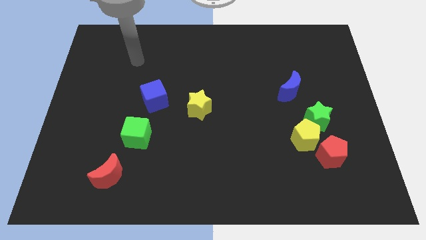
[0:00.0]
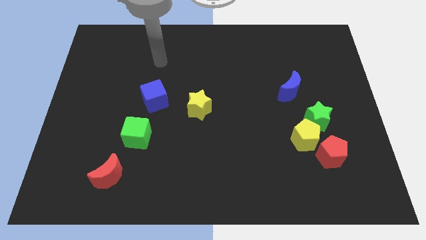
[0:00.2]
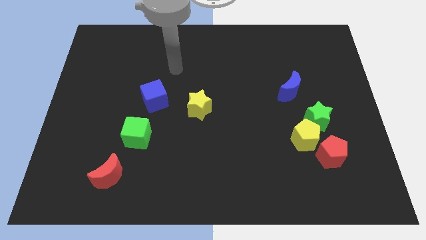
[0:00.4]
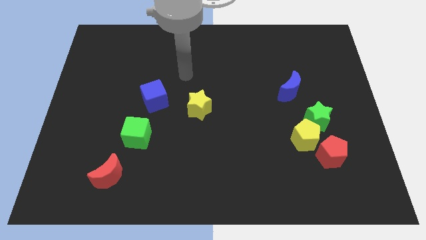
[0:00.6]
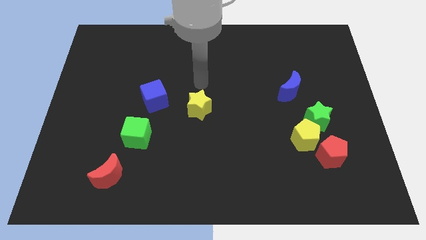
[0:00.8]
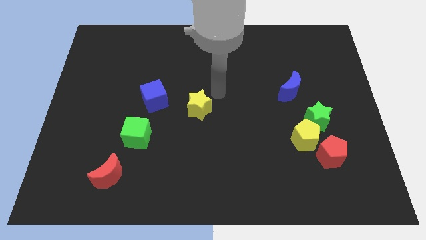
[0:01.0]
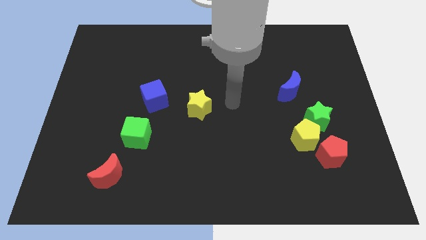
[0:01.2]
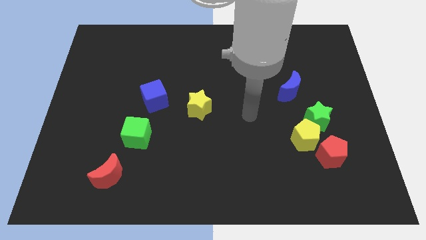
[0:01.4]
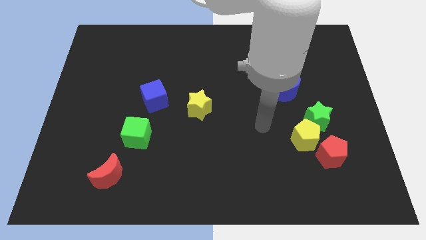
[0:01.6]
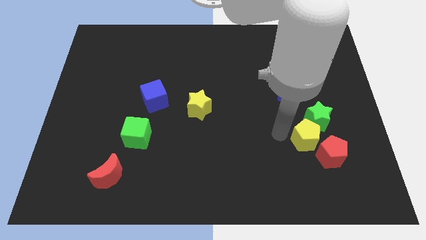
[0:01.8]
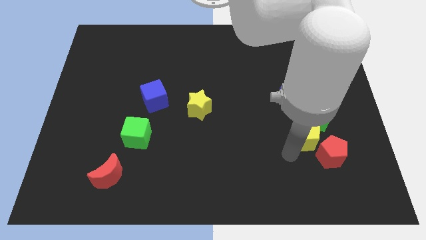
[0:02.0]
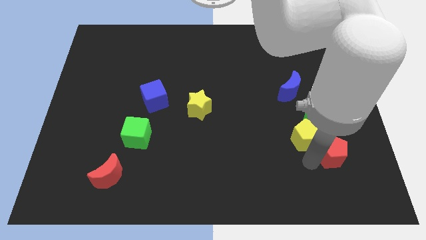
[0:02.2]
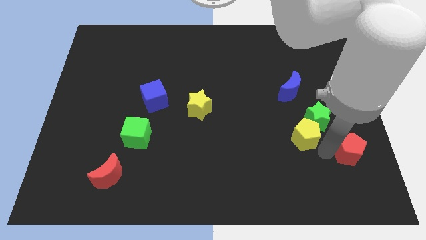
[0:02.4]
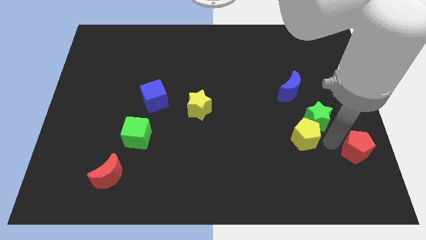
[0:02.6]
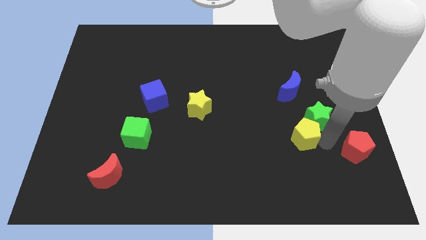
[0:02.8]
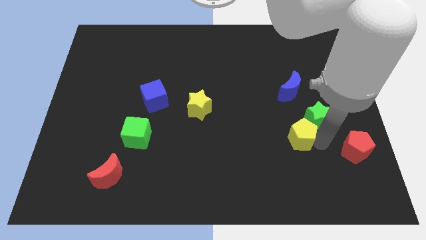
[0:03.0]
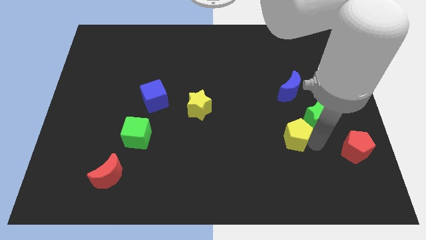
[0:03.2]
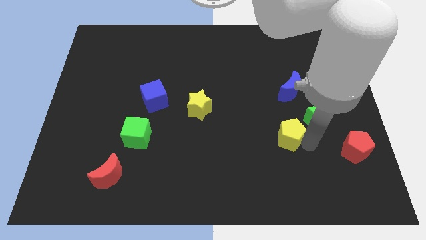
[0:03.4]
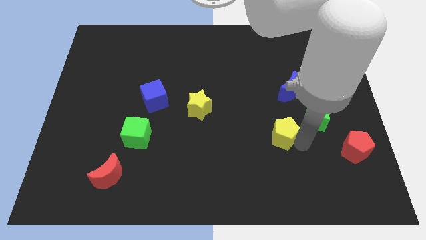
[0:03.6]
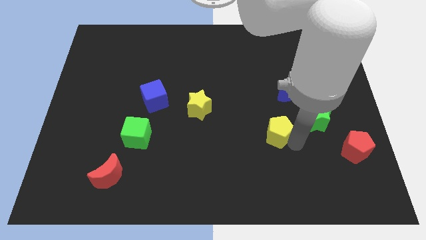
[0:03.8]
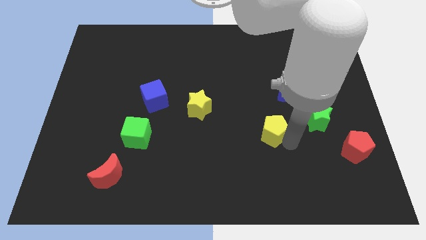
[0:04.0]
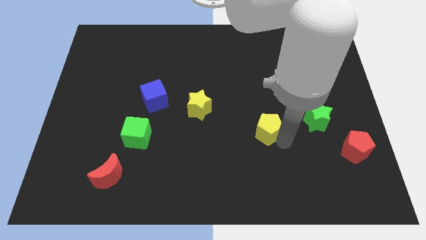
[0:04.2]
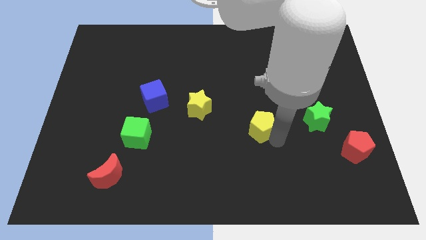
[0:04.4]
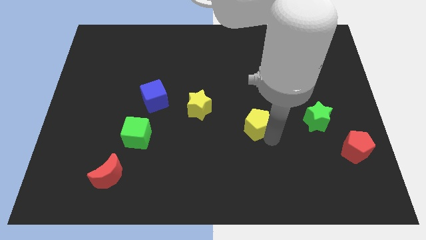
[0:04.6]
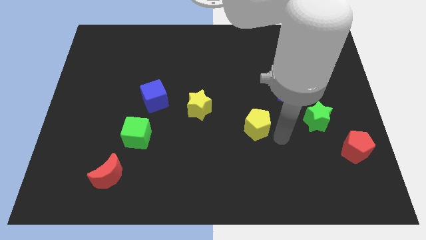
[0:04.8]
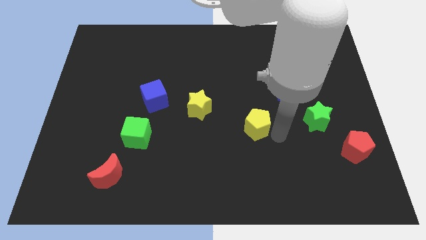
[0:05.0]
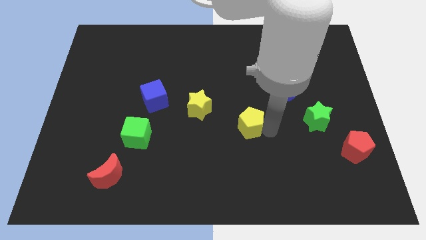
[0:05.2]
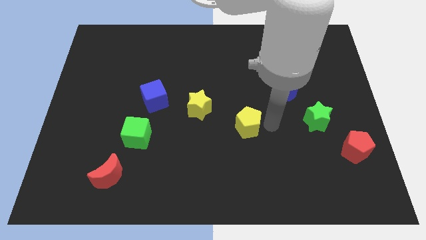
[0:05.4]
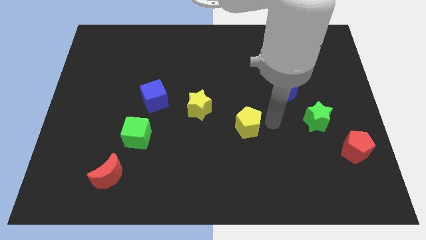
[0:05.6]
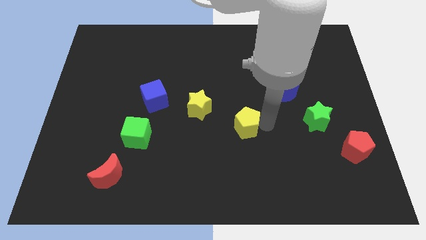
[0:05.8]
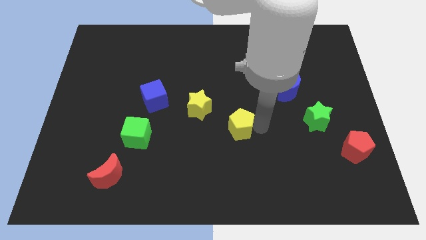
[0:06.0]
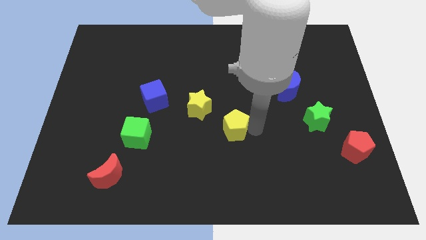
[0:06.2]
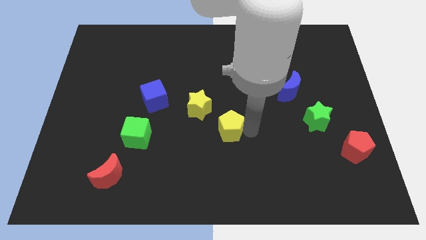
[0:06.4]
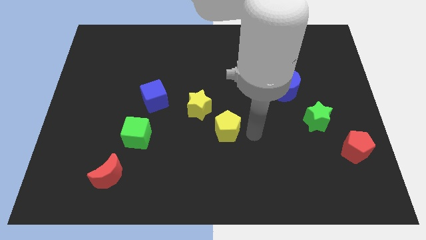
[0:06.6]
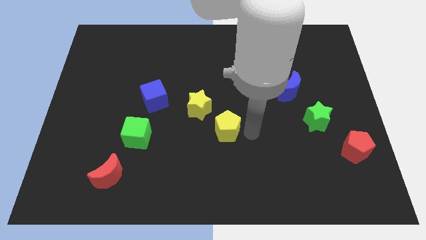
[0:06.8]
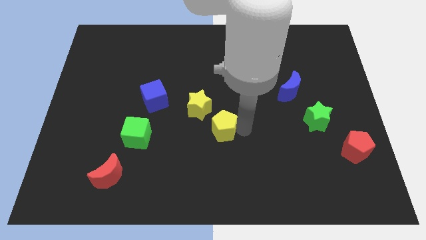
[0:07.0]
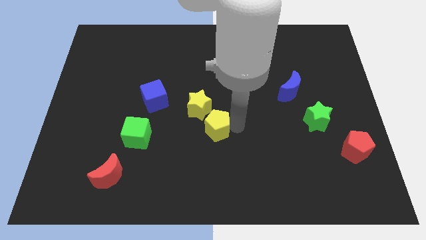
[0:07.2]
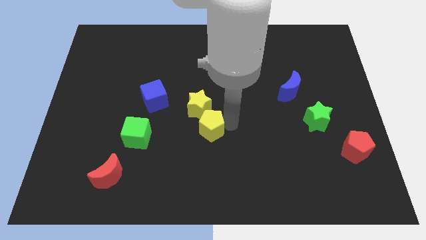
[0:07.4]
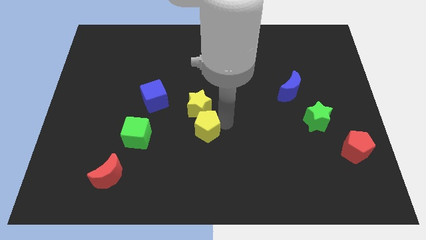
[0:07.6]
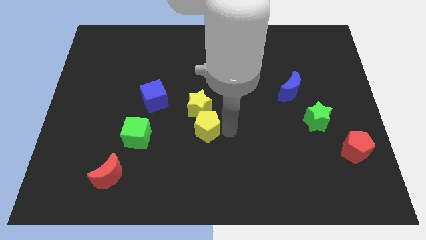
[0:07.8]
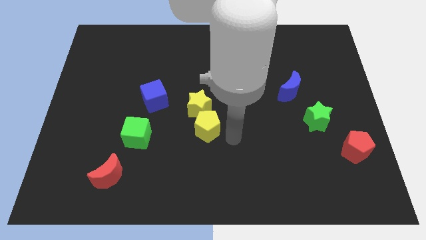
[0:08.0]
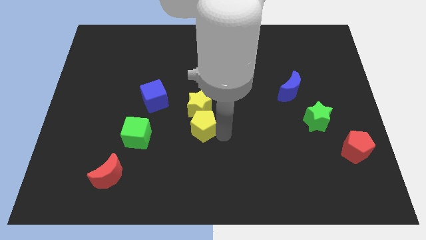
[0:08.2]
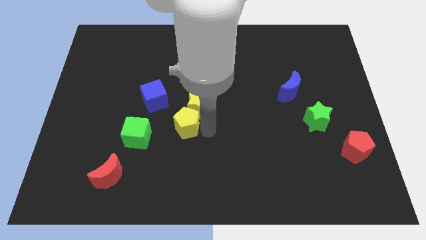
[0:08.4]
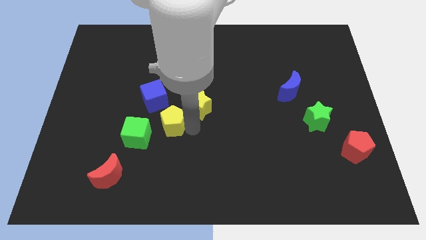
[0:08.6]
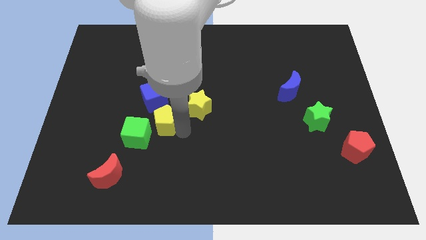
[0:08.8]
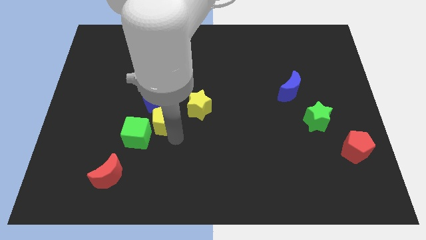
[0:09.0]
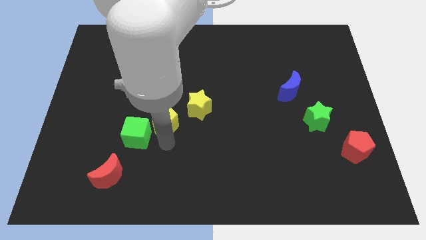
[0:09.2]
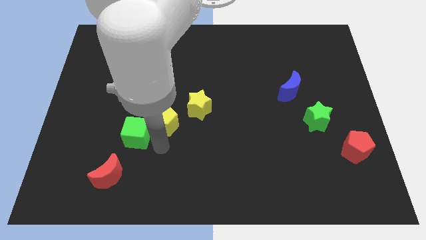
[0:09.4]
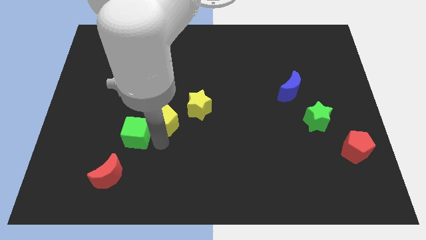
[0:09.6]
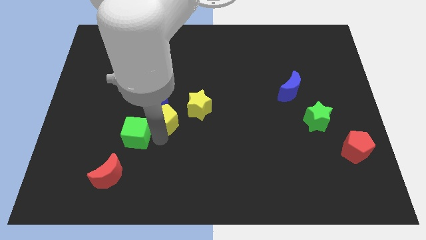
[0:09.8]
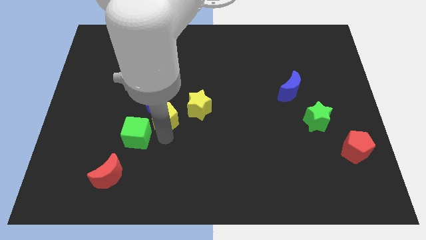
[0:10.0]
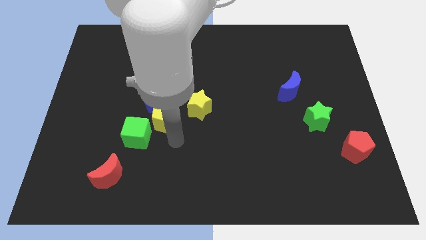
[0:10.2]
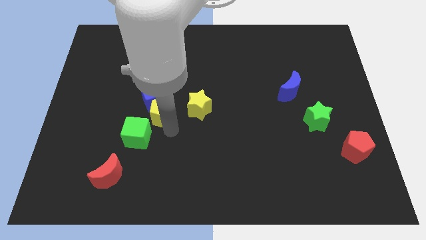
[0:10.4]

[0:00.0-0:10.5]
put the yellow pentagon close to the blue cube

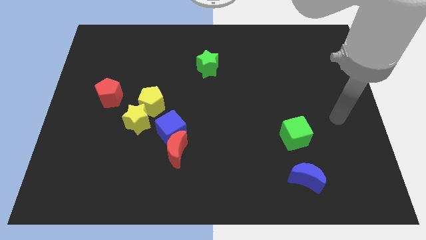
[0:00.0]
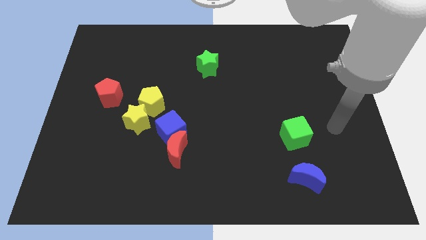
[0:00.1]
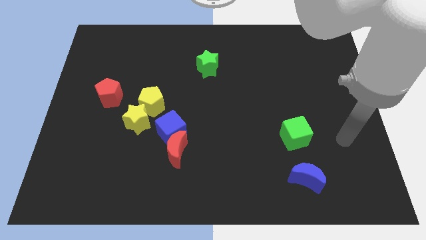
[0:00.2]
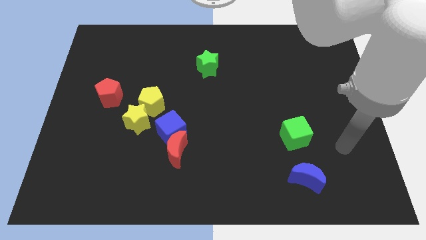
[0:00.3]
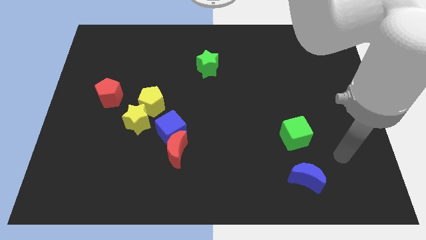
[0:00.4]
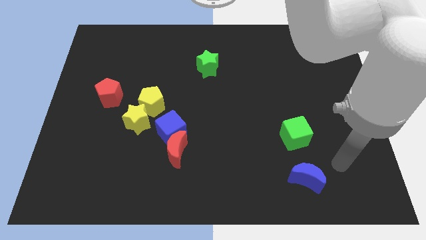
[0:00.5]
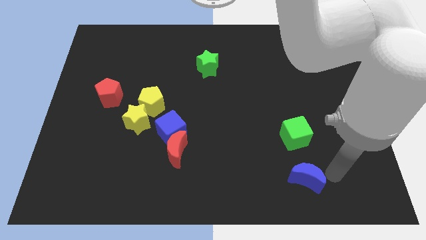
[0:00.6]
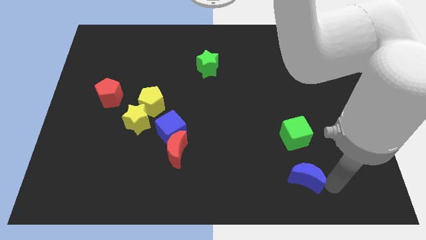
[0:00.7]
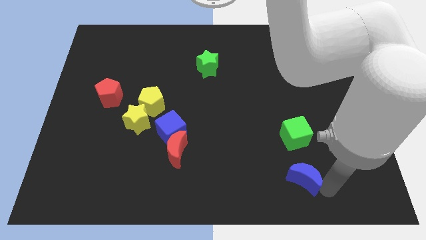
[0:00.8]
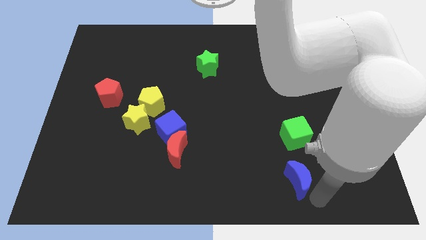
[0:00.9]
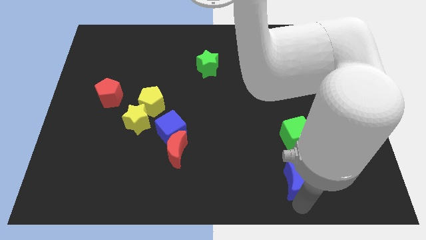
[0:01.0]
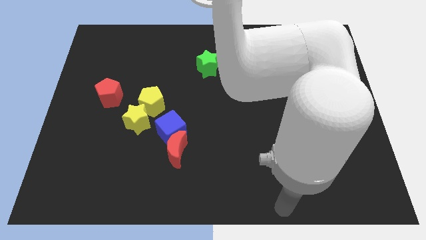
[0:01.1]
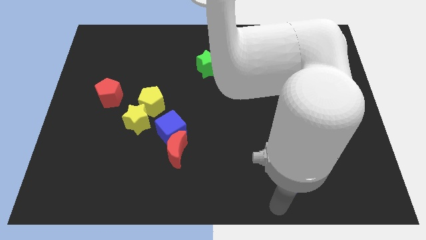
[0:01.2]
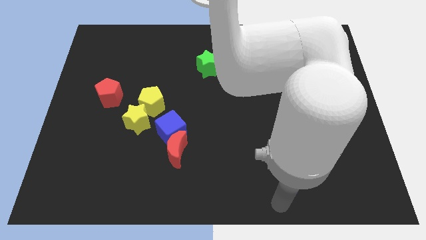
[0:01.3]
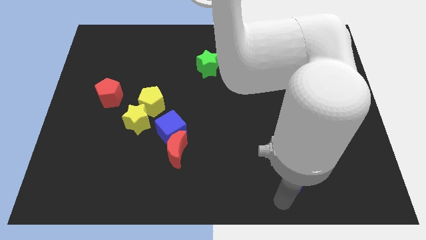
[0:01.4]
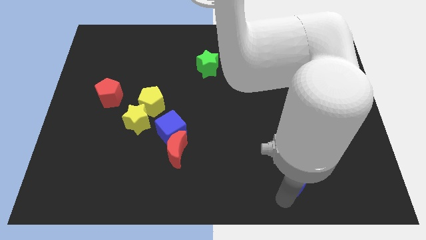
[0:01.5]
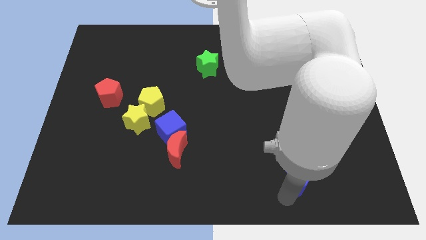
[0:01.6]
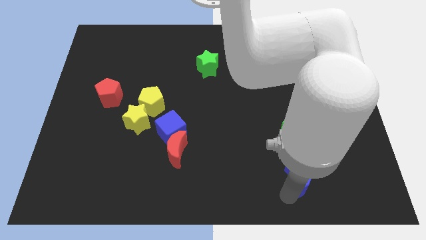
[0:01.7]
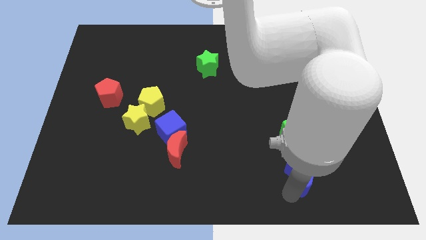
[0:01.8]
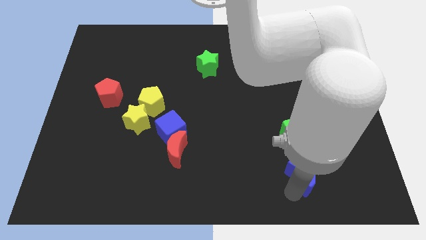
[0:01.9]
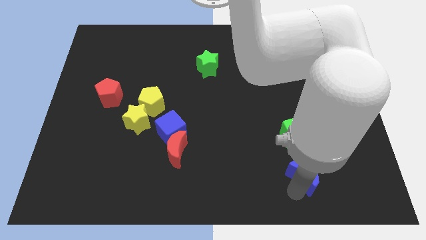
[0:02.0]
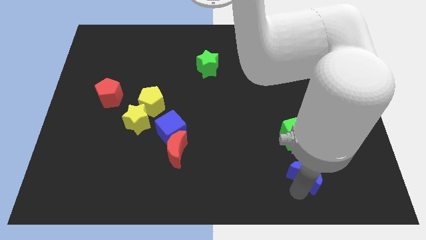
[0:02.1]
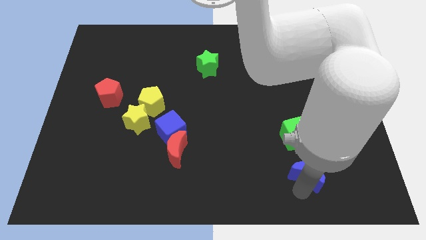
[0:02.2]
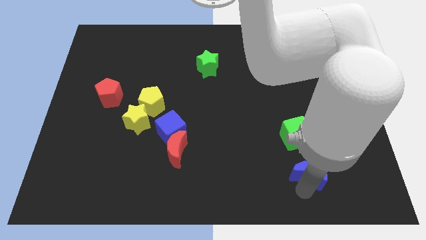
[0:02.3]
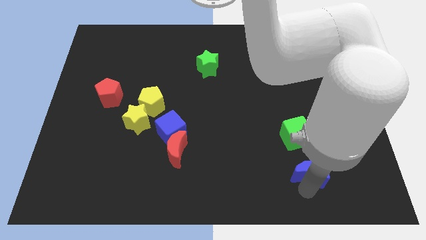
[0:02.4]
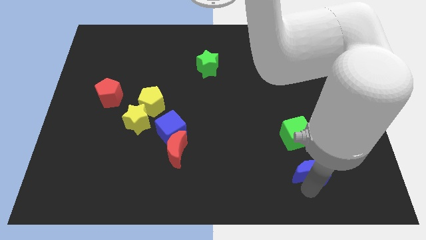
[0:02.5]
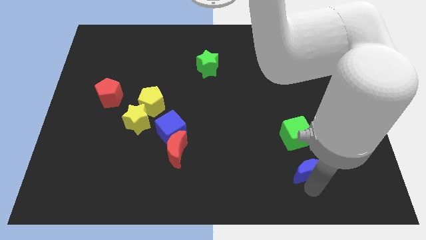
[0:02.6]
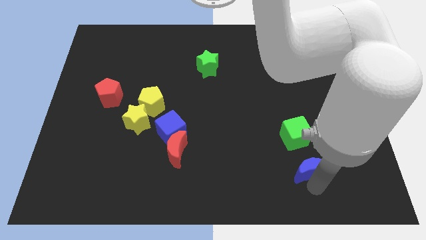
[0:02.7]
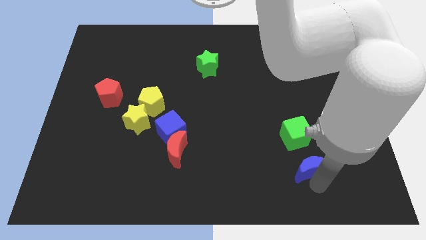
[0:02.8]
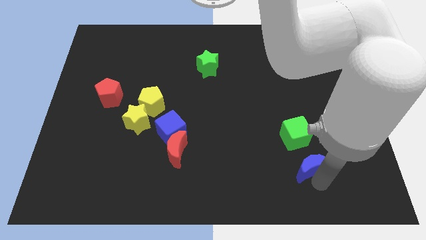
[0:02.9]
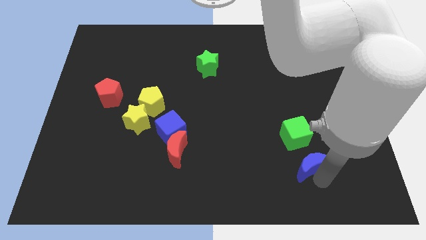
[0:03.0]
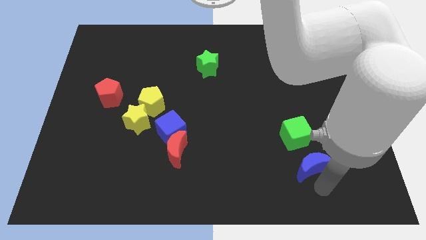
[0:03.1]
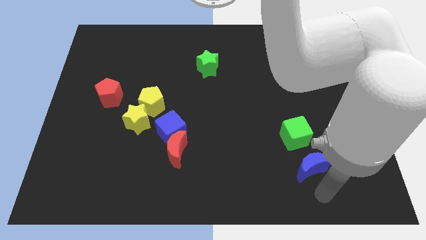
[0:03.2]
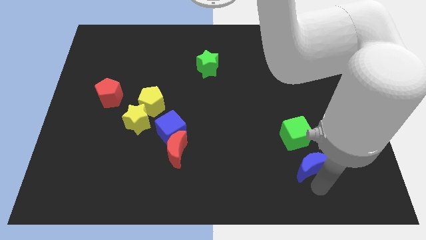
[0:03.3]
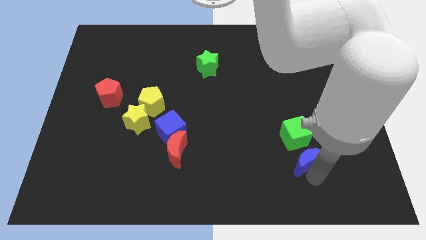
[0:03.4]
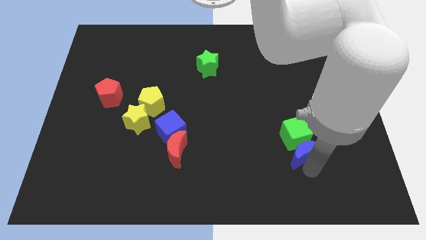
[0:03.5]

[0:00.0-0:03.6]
slide the blue moon towards the green cube
